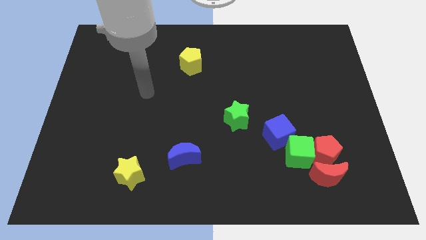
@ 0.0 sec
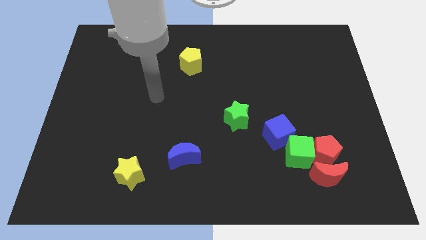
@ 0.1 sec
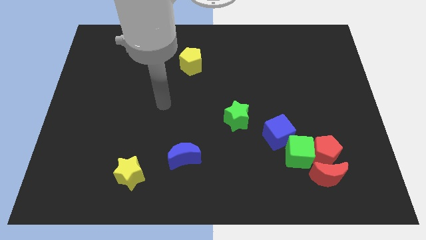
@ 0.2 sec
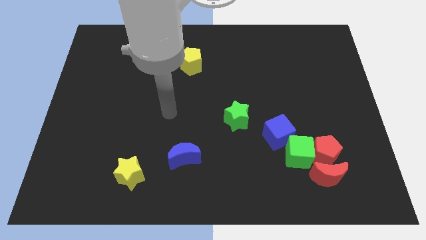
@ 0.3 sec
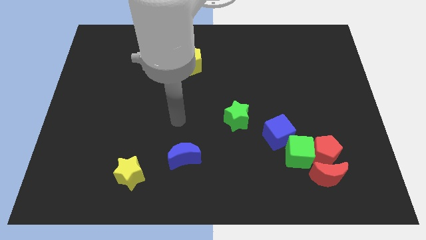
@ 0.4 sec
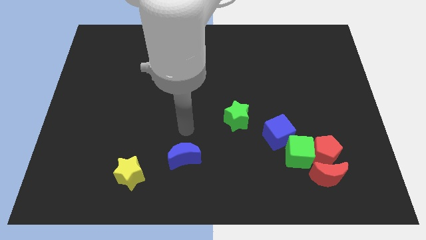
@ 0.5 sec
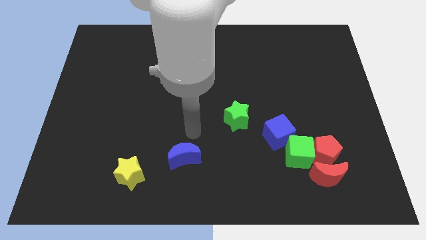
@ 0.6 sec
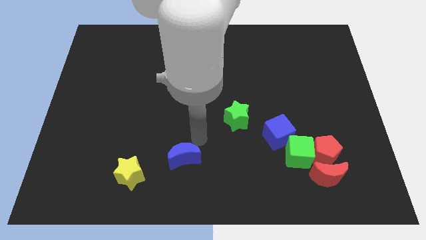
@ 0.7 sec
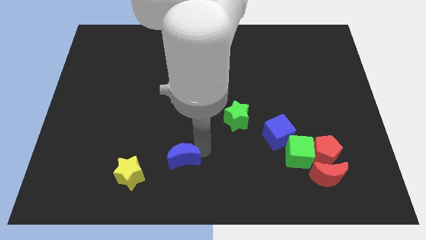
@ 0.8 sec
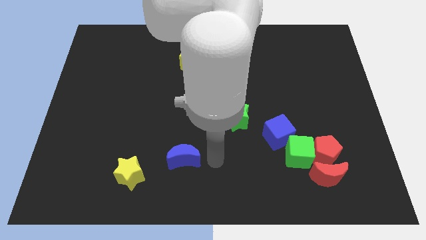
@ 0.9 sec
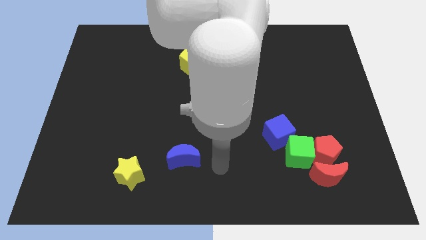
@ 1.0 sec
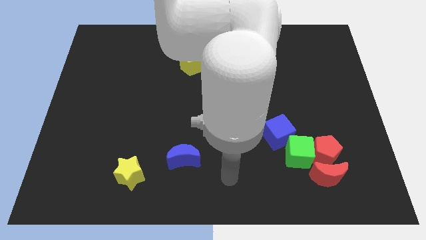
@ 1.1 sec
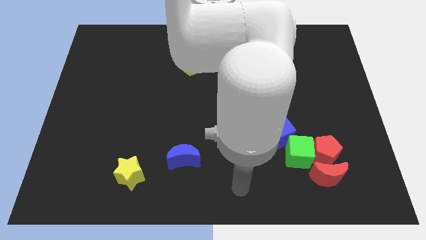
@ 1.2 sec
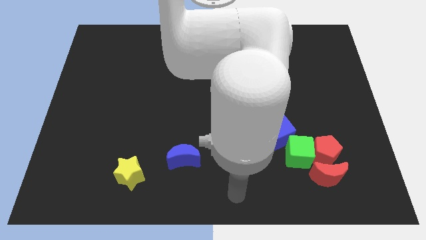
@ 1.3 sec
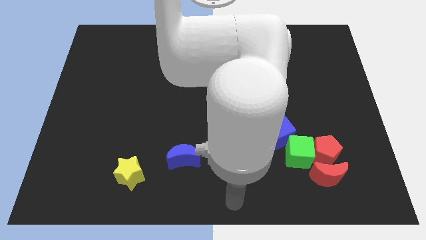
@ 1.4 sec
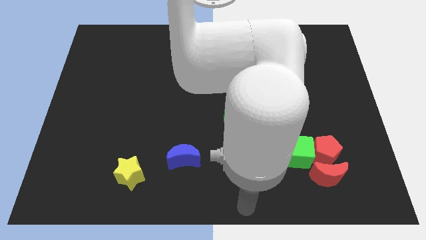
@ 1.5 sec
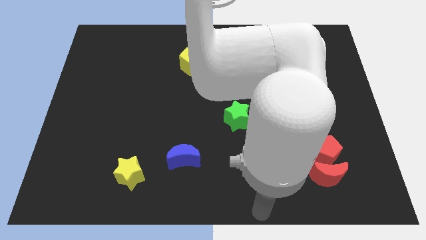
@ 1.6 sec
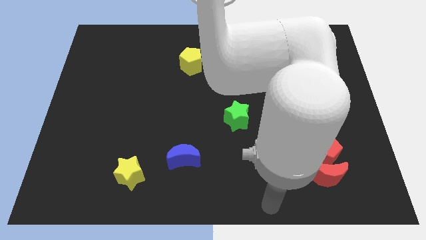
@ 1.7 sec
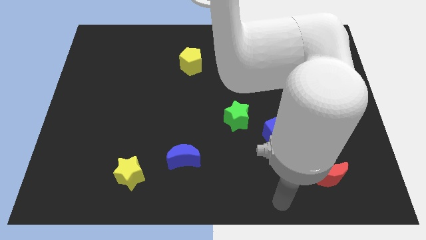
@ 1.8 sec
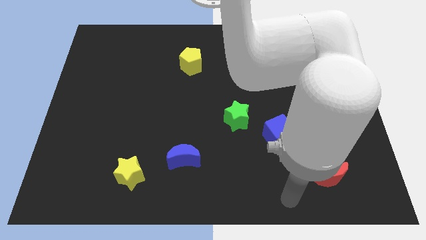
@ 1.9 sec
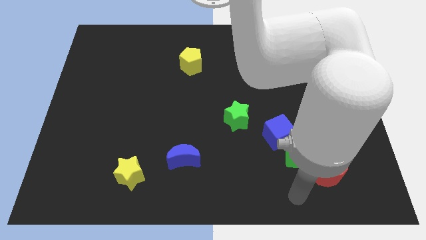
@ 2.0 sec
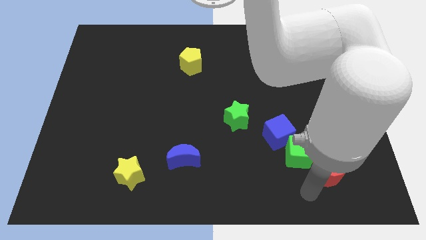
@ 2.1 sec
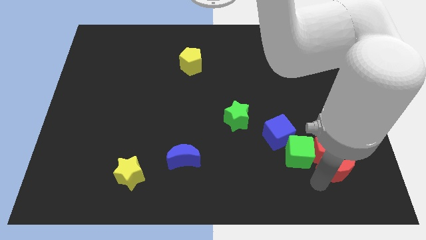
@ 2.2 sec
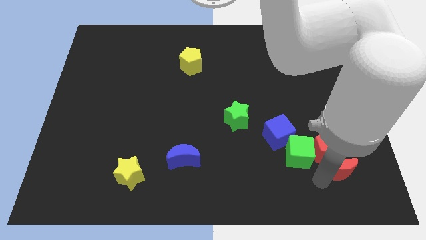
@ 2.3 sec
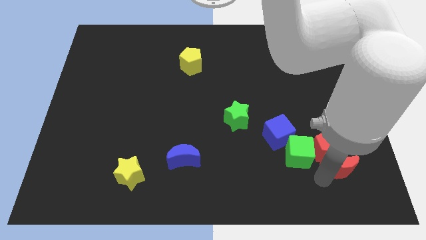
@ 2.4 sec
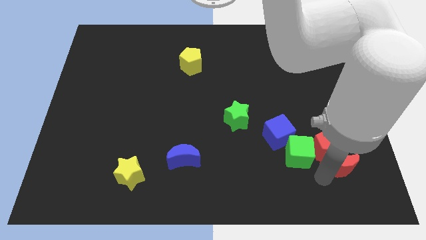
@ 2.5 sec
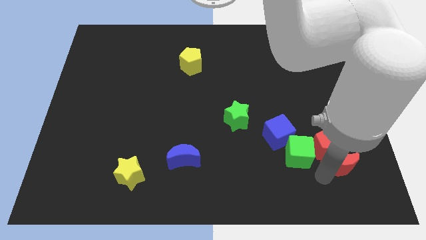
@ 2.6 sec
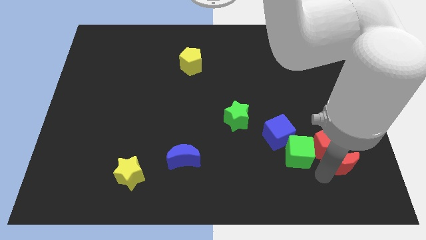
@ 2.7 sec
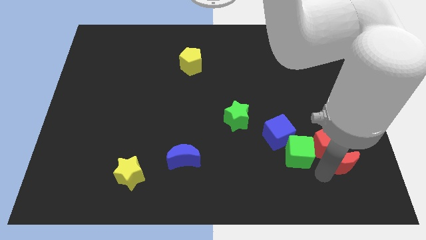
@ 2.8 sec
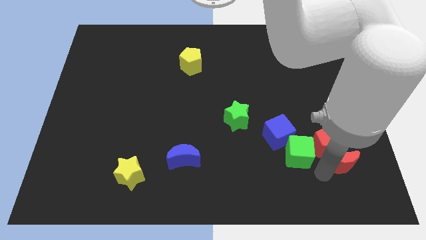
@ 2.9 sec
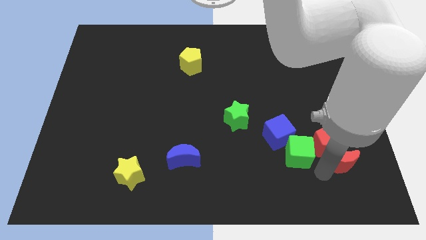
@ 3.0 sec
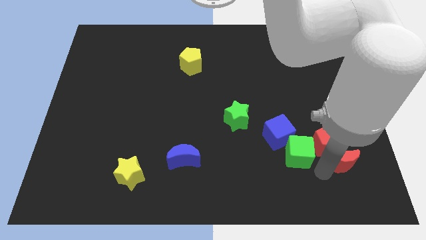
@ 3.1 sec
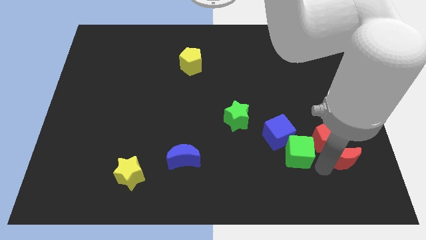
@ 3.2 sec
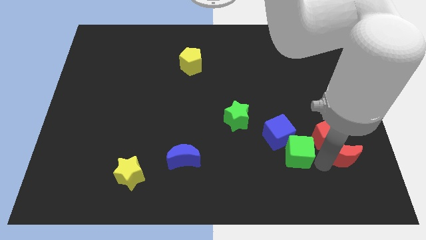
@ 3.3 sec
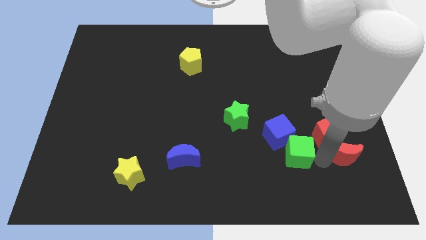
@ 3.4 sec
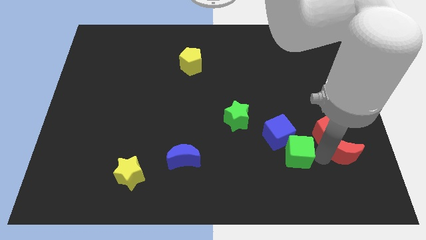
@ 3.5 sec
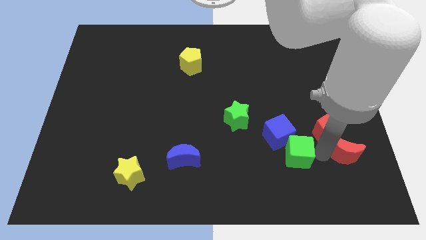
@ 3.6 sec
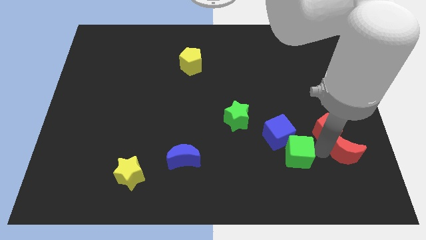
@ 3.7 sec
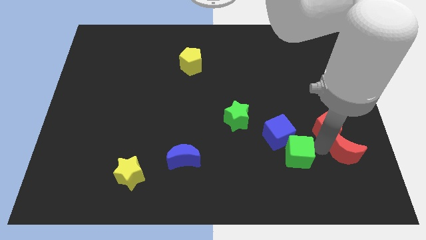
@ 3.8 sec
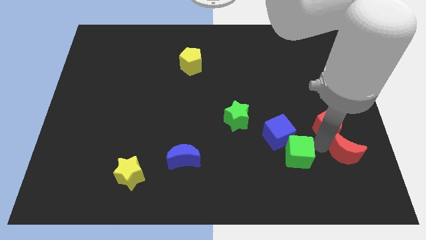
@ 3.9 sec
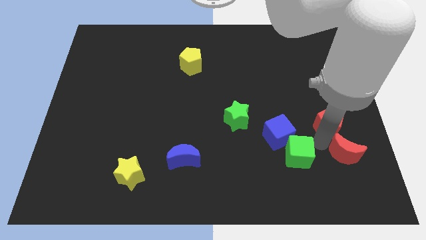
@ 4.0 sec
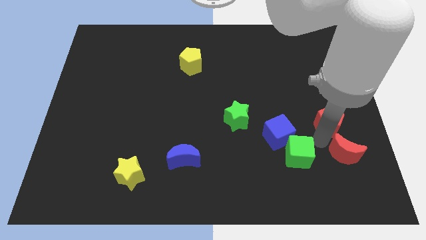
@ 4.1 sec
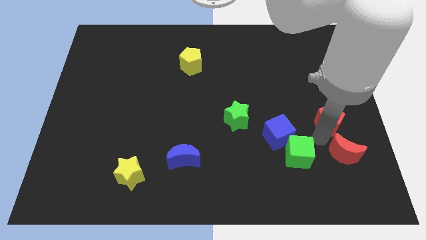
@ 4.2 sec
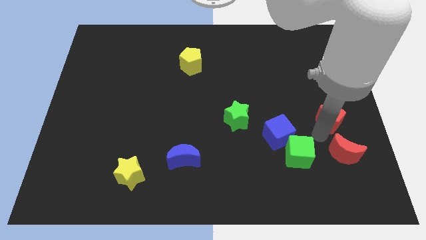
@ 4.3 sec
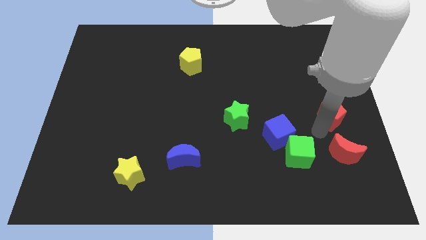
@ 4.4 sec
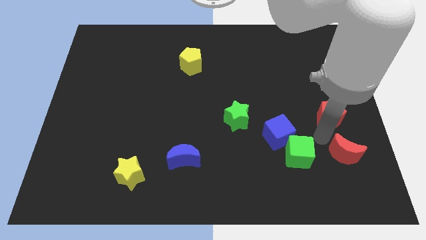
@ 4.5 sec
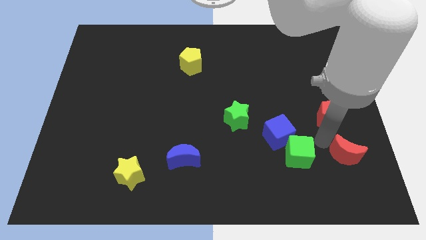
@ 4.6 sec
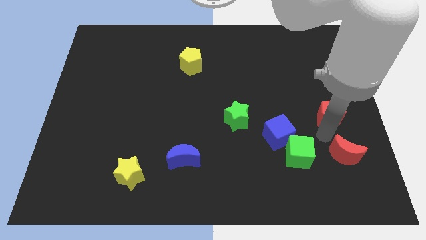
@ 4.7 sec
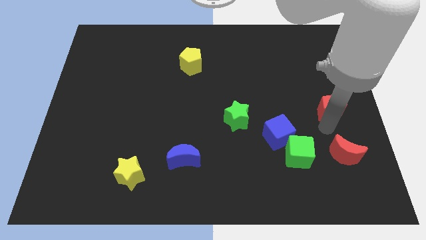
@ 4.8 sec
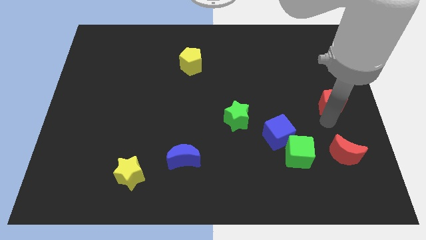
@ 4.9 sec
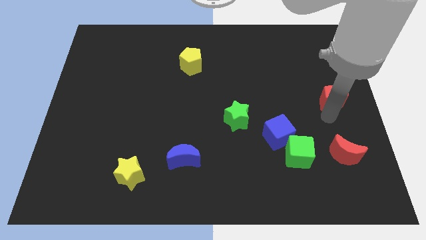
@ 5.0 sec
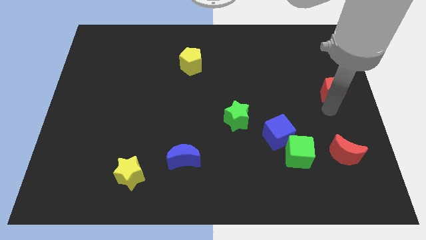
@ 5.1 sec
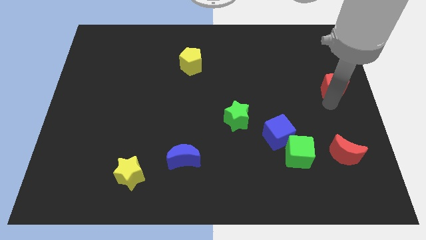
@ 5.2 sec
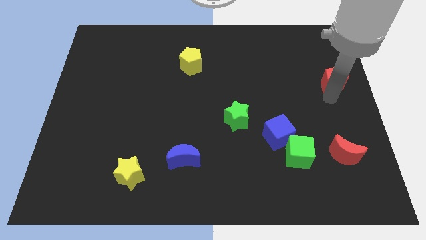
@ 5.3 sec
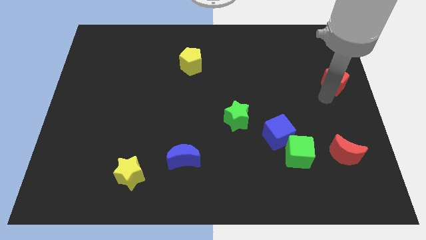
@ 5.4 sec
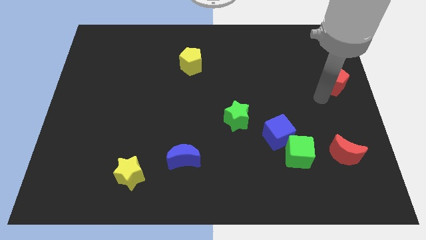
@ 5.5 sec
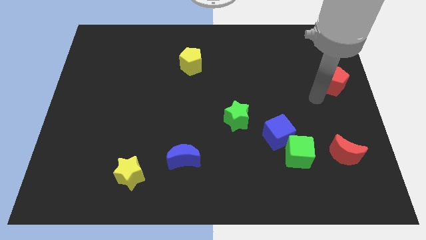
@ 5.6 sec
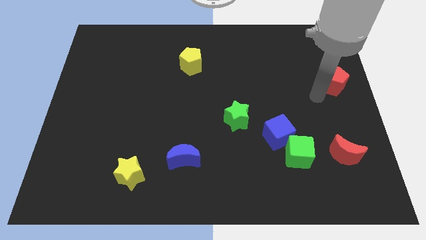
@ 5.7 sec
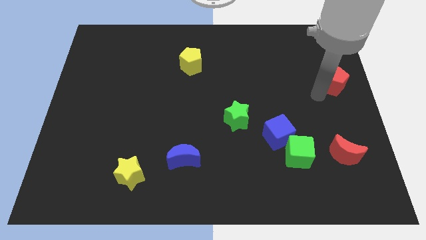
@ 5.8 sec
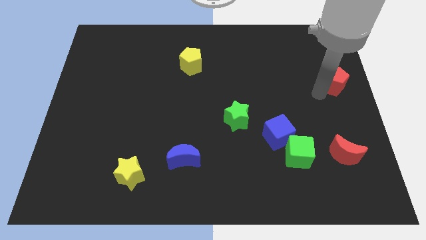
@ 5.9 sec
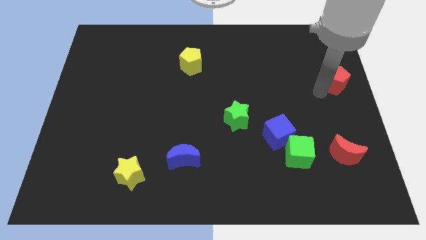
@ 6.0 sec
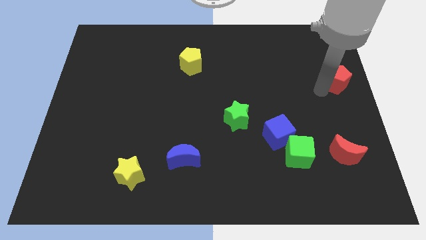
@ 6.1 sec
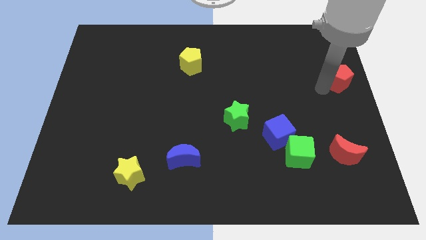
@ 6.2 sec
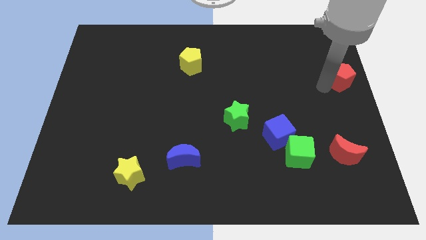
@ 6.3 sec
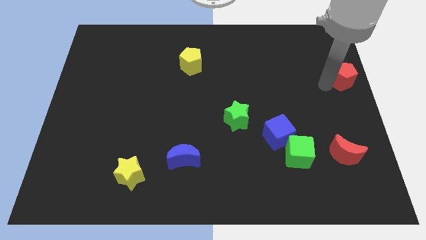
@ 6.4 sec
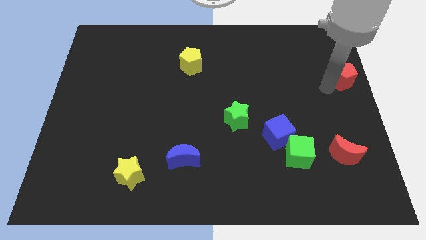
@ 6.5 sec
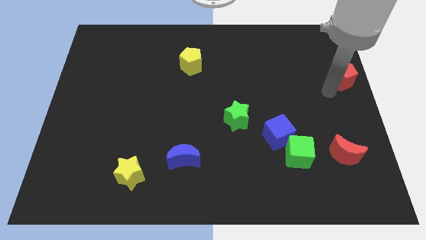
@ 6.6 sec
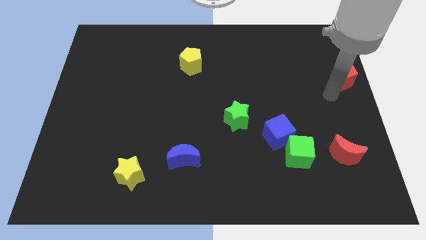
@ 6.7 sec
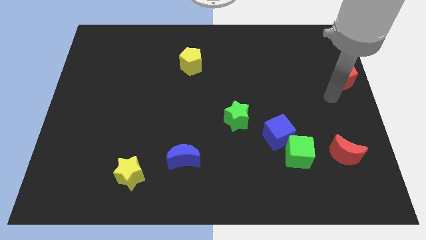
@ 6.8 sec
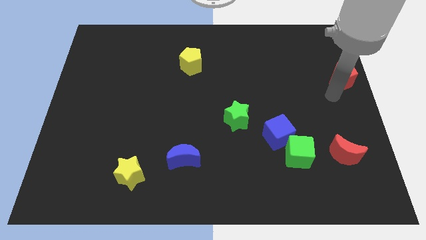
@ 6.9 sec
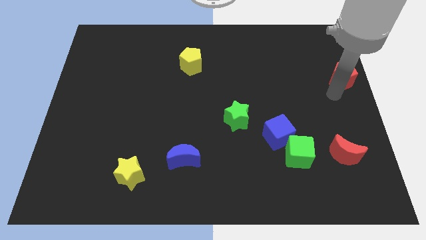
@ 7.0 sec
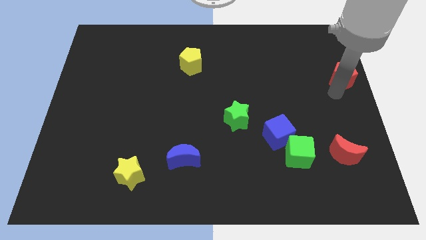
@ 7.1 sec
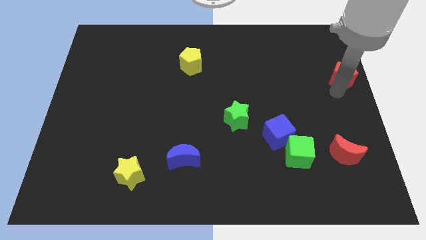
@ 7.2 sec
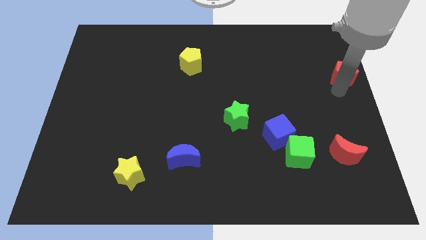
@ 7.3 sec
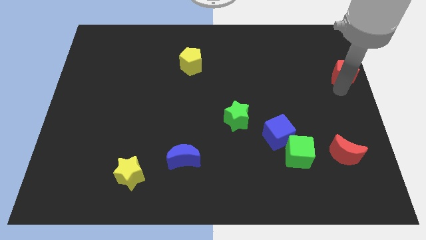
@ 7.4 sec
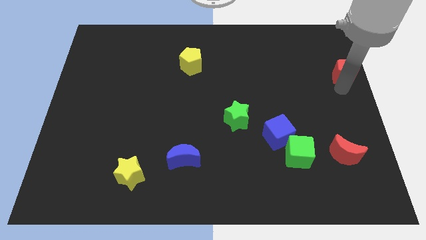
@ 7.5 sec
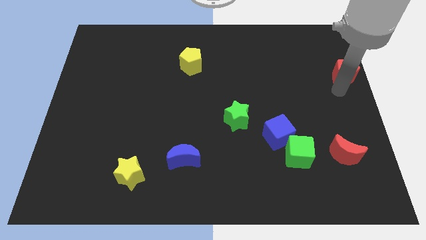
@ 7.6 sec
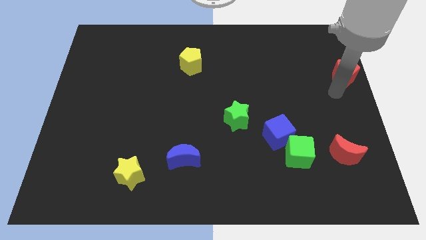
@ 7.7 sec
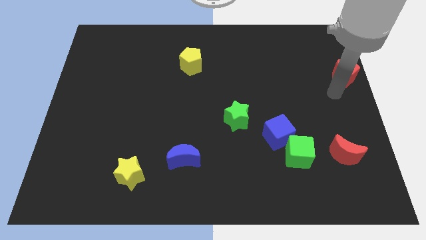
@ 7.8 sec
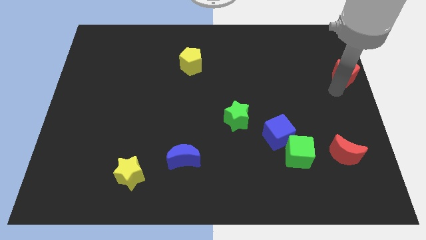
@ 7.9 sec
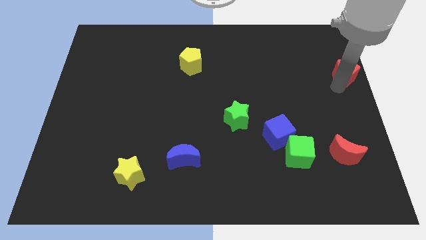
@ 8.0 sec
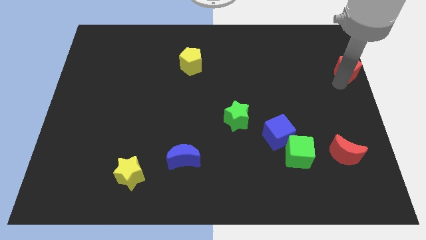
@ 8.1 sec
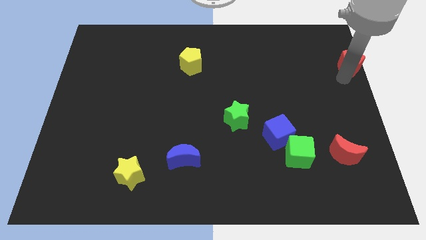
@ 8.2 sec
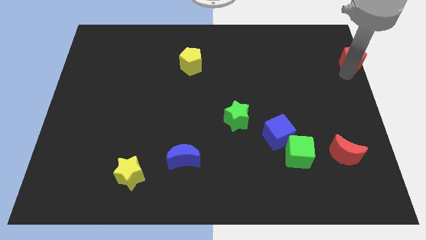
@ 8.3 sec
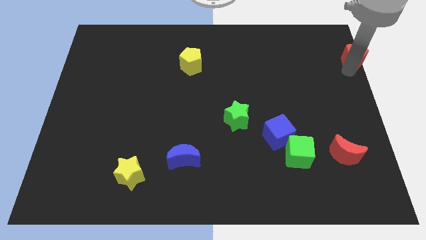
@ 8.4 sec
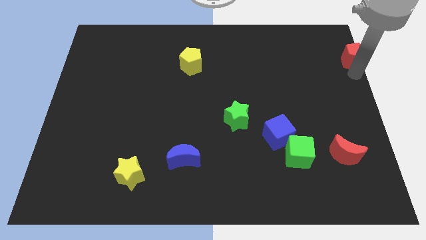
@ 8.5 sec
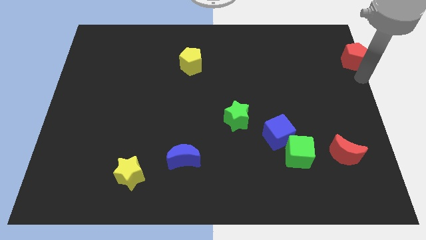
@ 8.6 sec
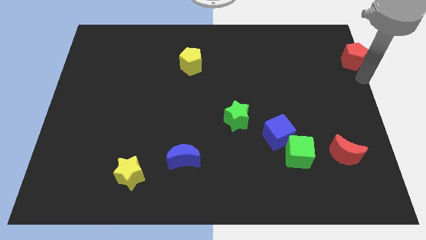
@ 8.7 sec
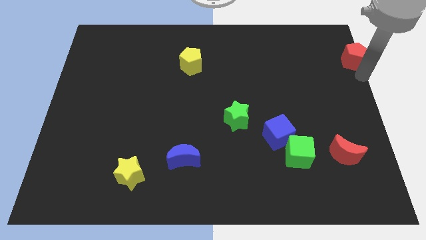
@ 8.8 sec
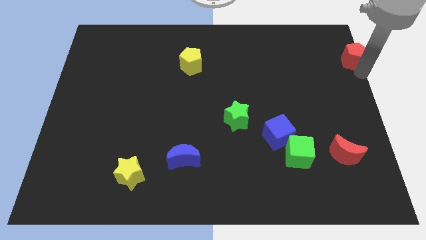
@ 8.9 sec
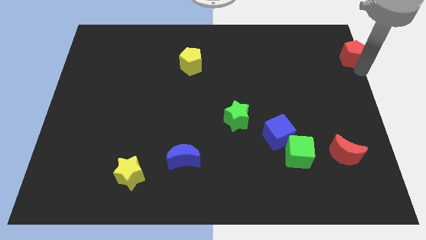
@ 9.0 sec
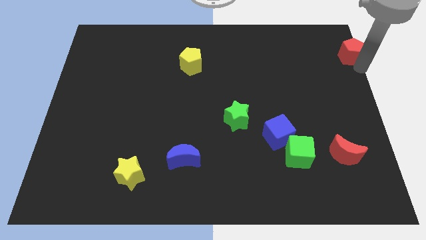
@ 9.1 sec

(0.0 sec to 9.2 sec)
slide the red pentagon to the top right corner
